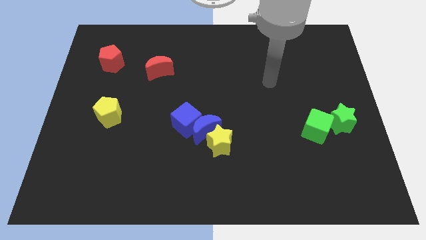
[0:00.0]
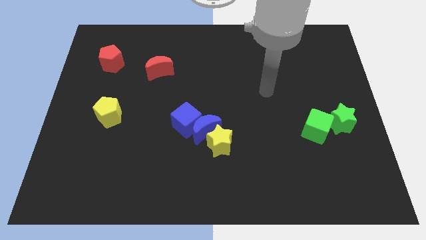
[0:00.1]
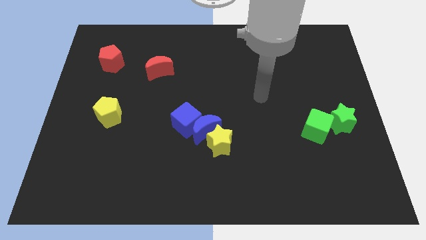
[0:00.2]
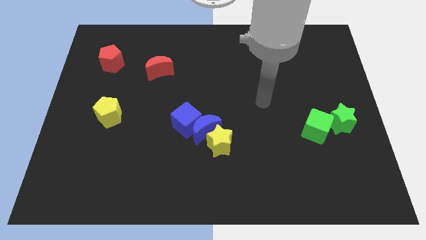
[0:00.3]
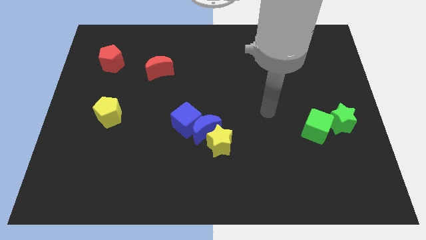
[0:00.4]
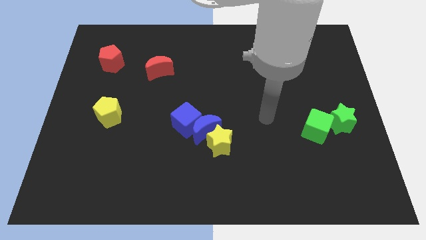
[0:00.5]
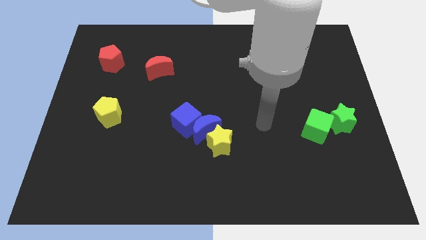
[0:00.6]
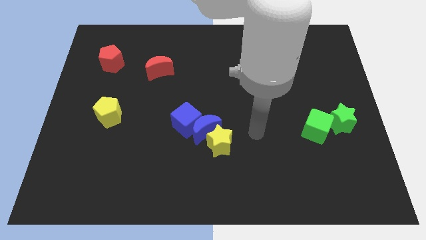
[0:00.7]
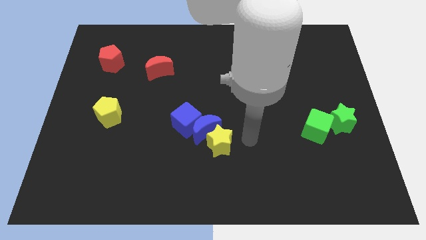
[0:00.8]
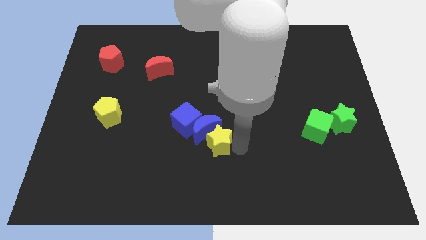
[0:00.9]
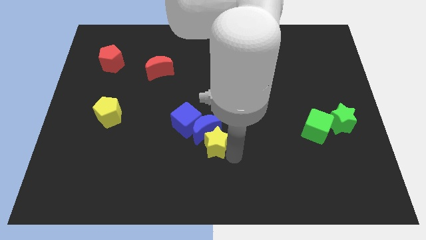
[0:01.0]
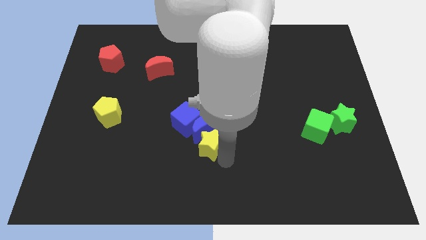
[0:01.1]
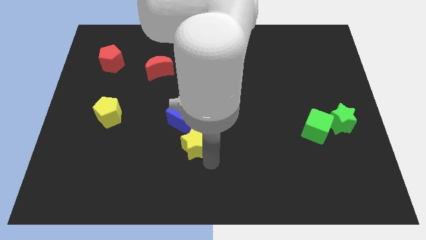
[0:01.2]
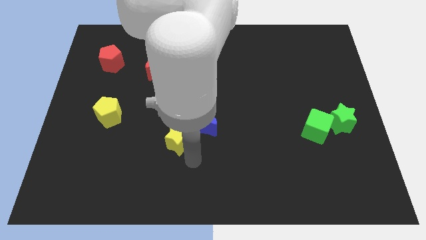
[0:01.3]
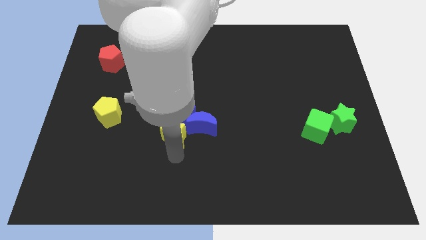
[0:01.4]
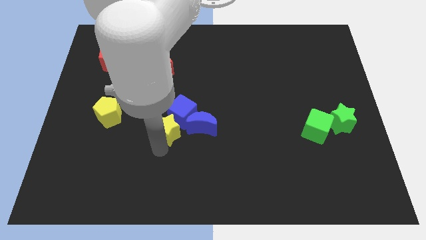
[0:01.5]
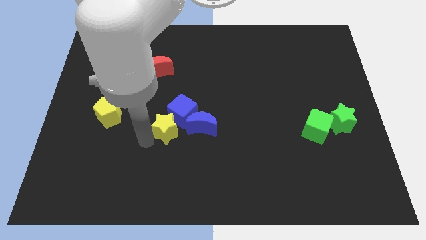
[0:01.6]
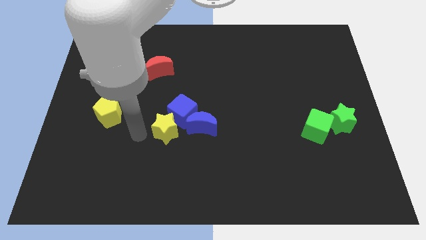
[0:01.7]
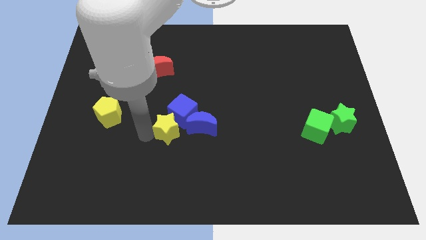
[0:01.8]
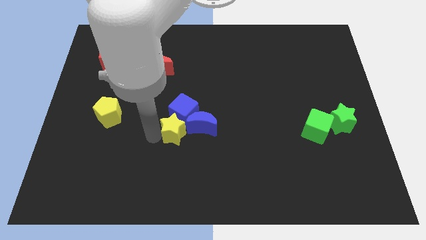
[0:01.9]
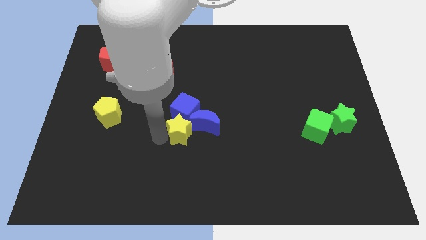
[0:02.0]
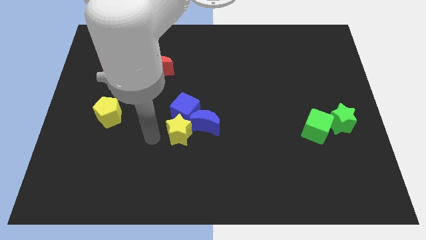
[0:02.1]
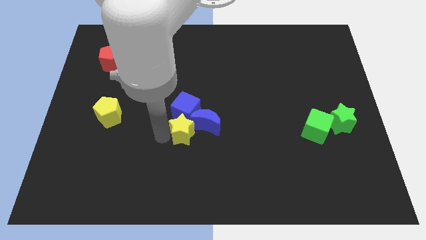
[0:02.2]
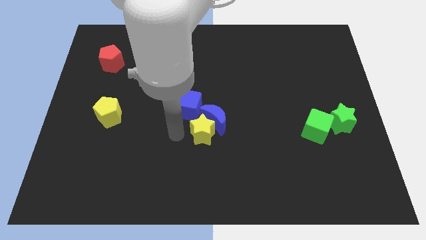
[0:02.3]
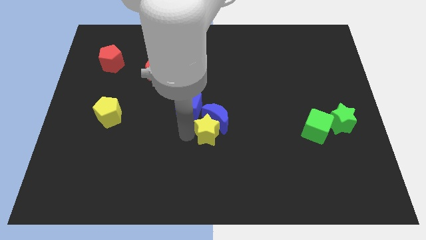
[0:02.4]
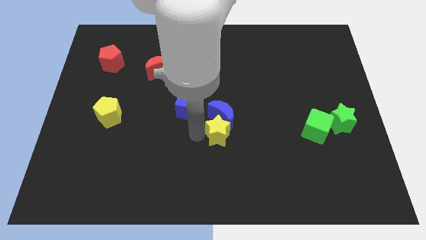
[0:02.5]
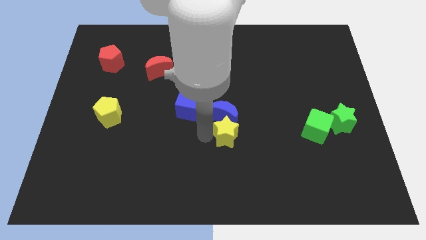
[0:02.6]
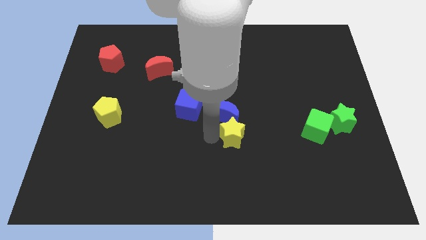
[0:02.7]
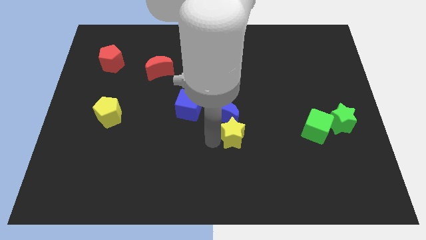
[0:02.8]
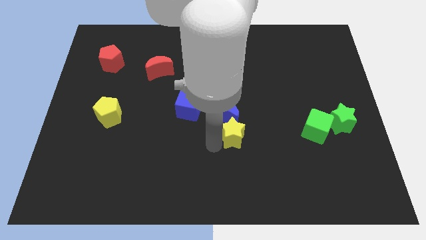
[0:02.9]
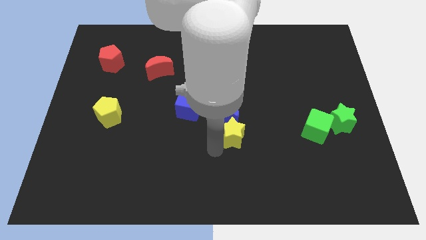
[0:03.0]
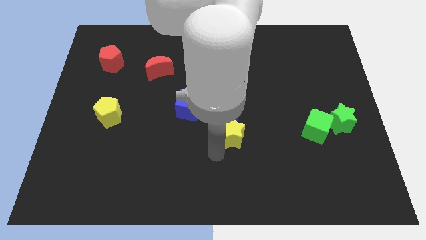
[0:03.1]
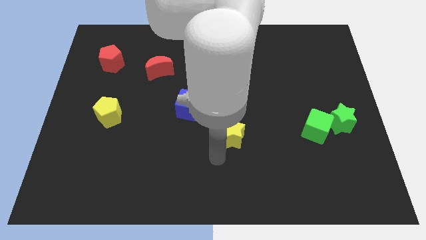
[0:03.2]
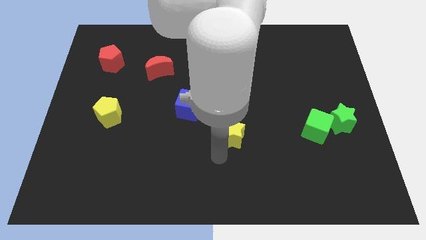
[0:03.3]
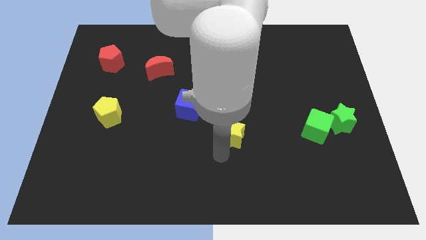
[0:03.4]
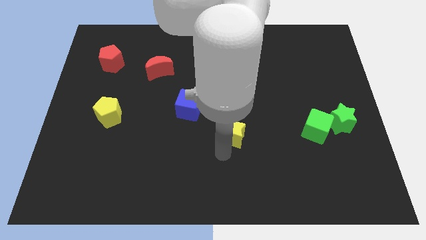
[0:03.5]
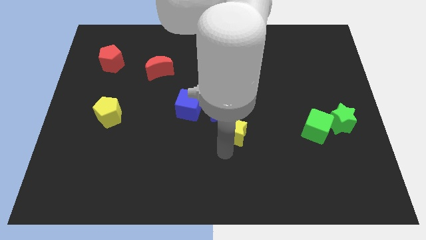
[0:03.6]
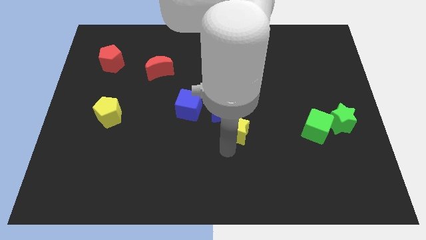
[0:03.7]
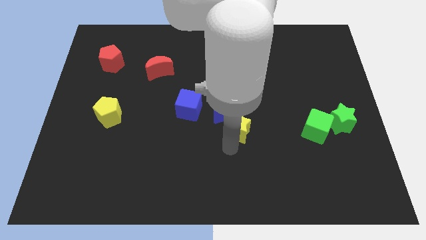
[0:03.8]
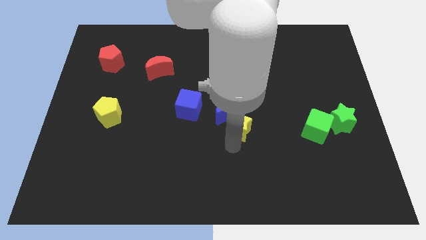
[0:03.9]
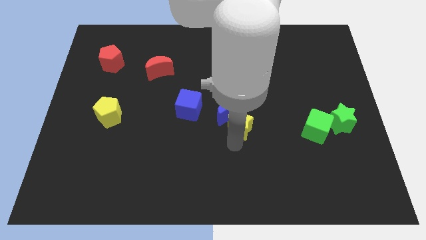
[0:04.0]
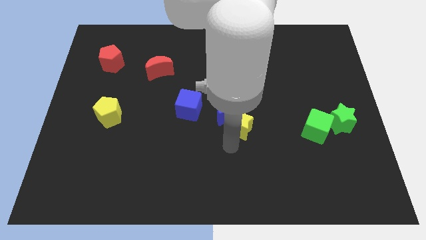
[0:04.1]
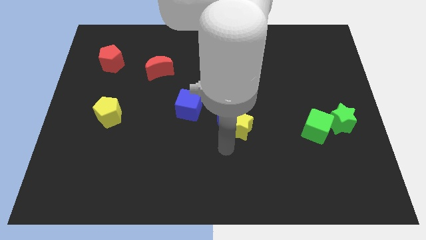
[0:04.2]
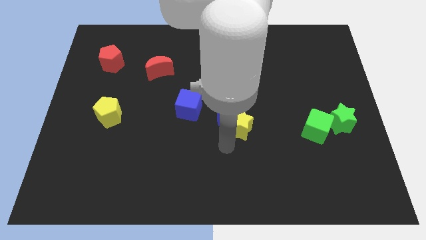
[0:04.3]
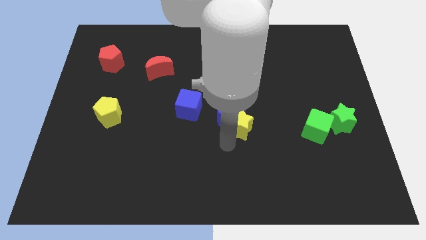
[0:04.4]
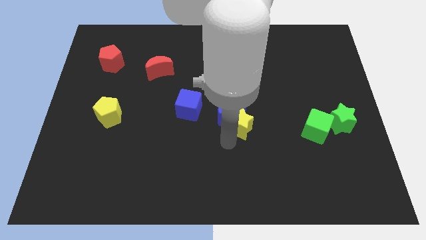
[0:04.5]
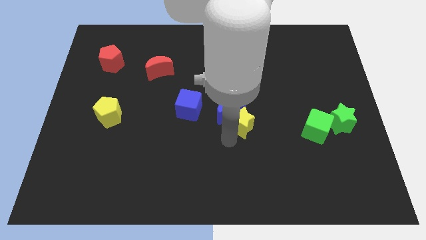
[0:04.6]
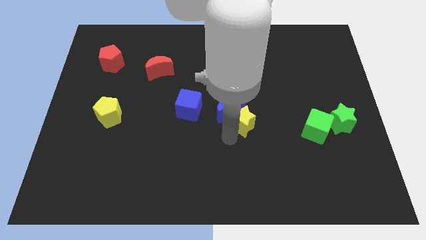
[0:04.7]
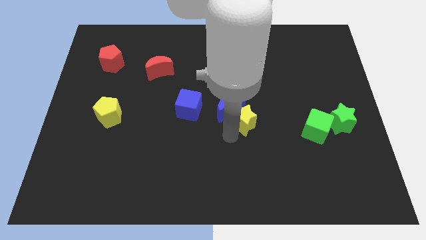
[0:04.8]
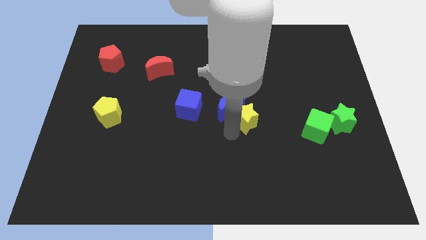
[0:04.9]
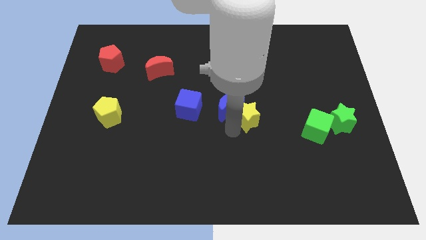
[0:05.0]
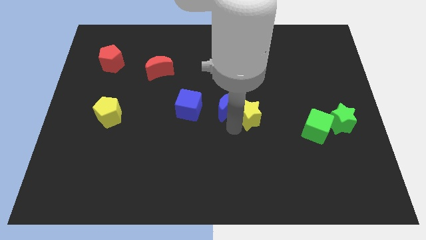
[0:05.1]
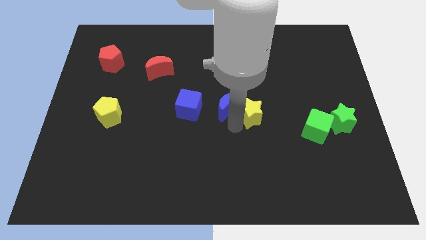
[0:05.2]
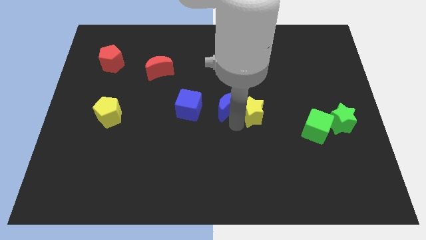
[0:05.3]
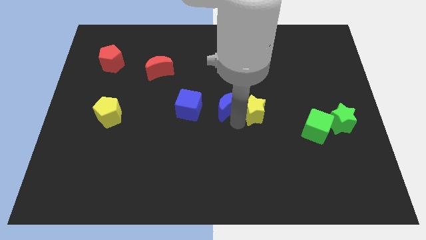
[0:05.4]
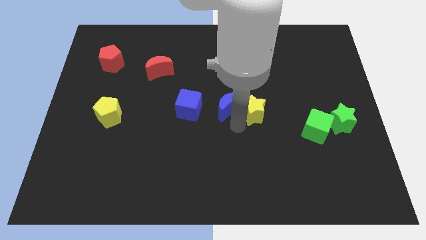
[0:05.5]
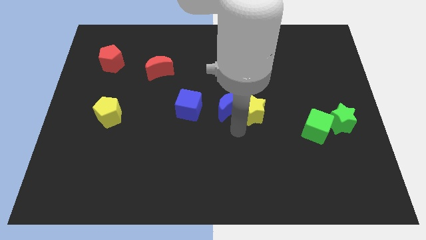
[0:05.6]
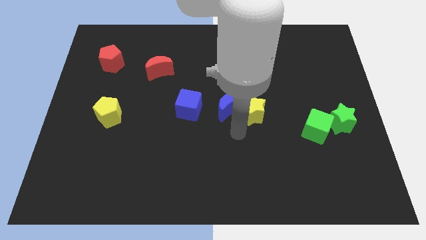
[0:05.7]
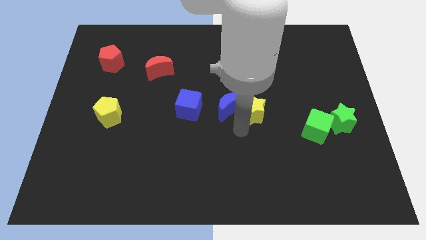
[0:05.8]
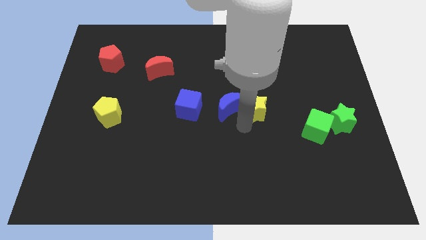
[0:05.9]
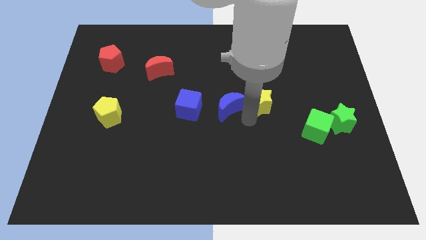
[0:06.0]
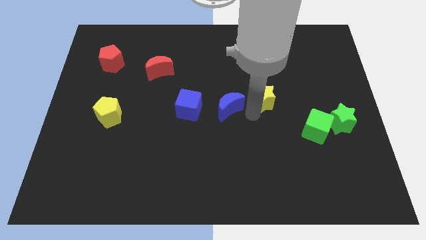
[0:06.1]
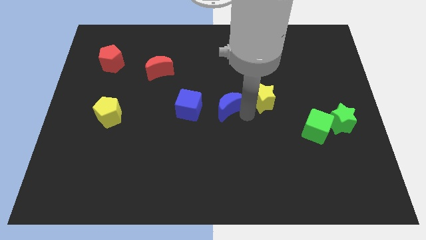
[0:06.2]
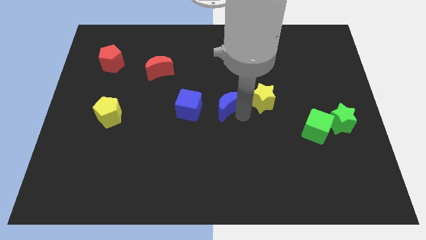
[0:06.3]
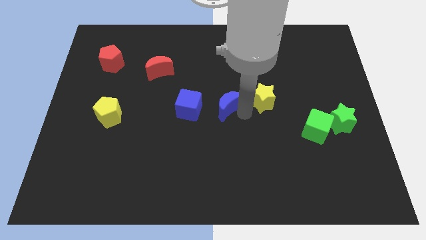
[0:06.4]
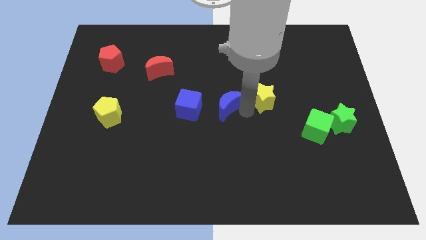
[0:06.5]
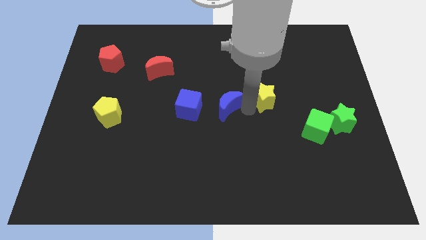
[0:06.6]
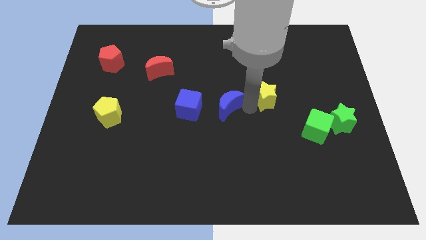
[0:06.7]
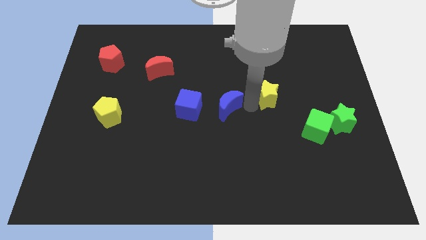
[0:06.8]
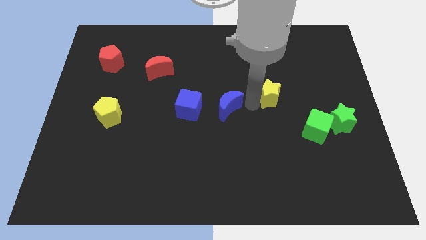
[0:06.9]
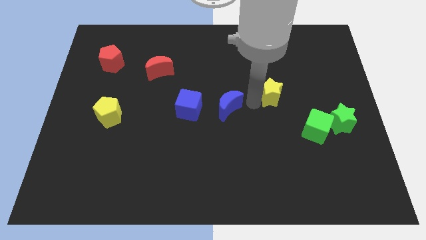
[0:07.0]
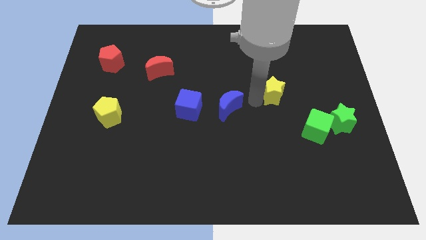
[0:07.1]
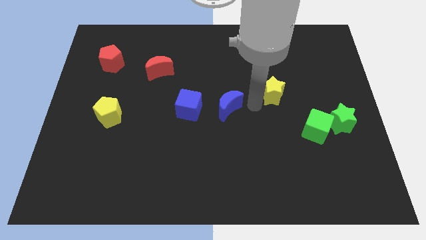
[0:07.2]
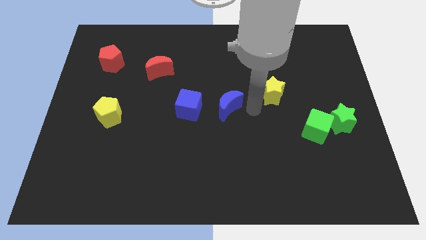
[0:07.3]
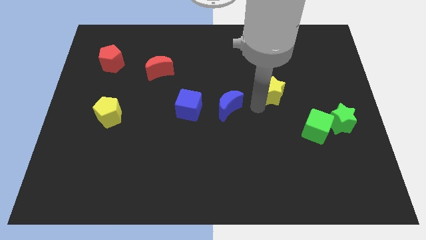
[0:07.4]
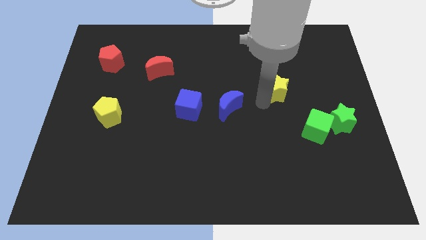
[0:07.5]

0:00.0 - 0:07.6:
push the yellow star upwards and then right

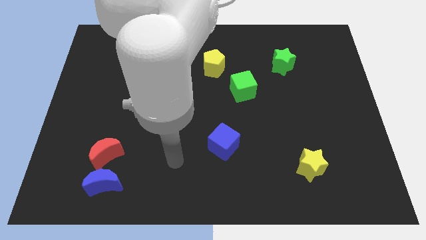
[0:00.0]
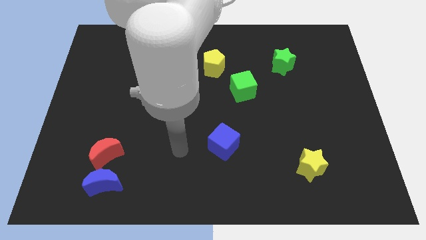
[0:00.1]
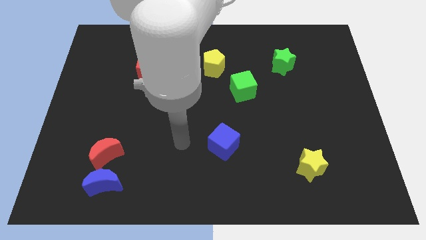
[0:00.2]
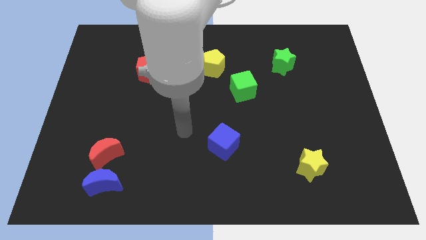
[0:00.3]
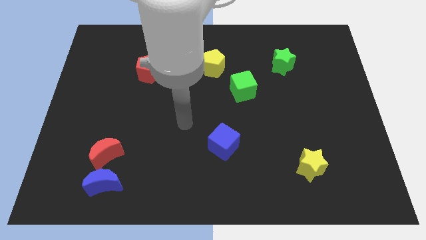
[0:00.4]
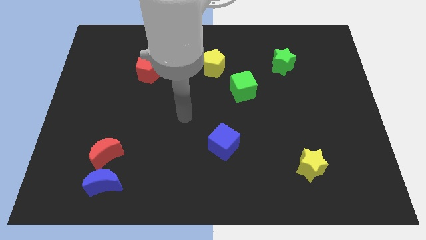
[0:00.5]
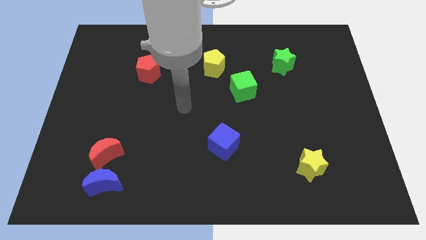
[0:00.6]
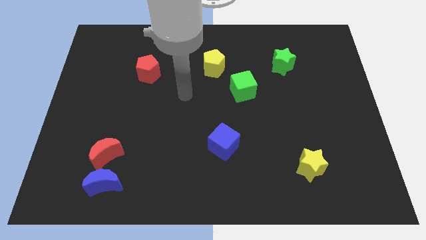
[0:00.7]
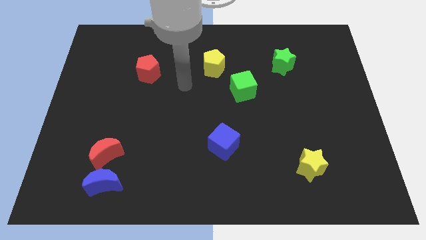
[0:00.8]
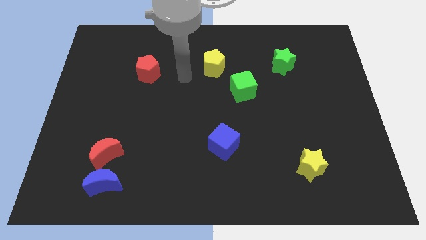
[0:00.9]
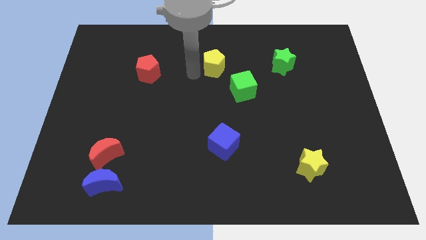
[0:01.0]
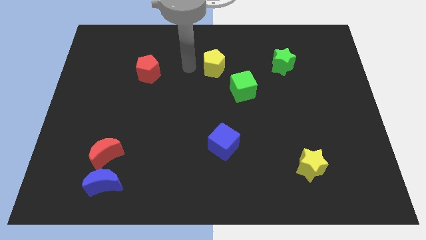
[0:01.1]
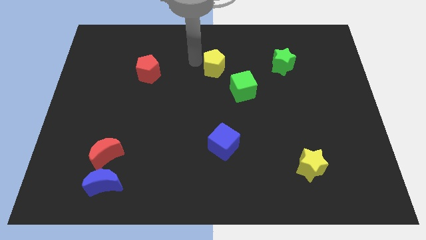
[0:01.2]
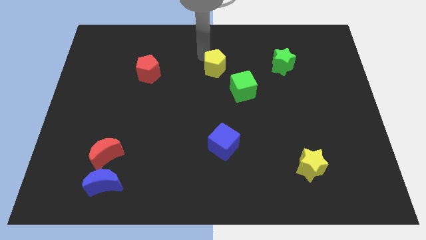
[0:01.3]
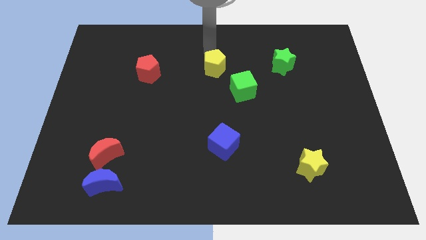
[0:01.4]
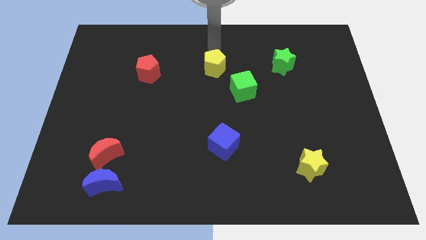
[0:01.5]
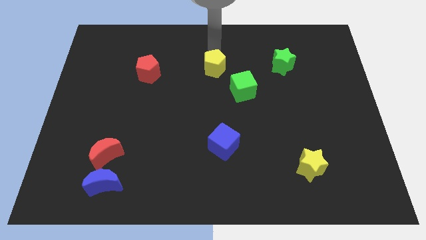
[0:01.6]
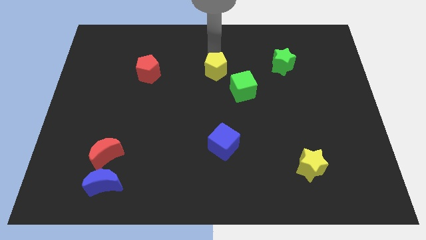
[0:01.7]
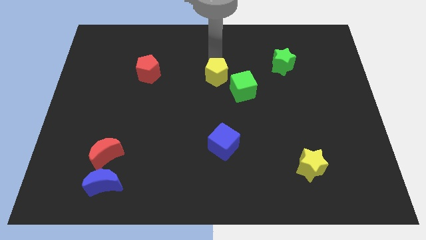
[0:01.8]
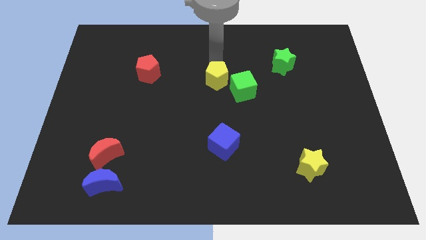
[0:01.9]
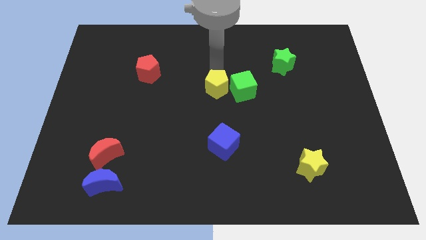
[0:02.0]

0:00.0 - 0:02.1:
slightly move the yellow pentagon downwards
